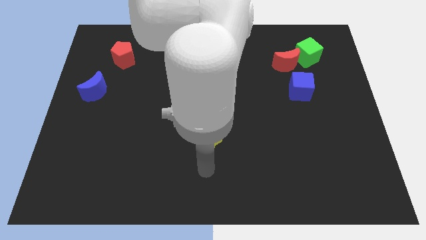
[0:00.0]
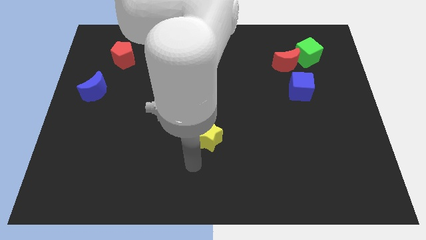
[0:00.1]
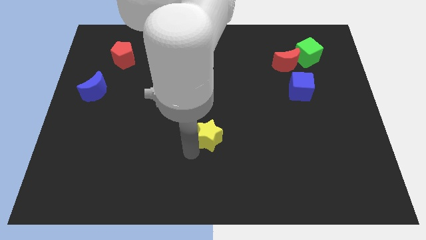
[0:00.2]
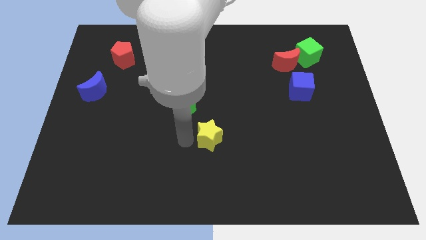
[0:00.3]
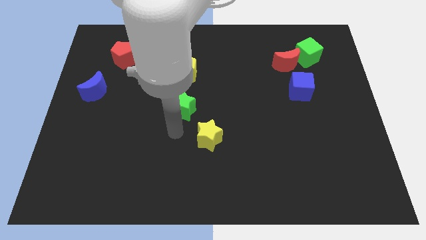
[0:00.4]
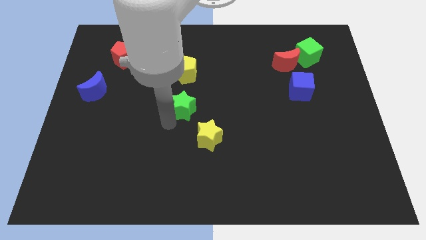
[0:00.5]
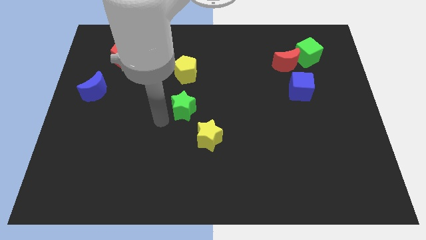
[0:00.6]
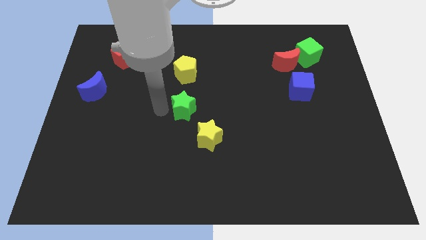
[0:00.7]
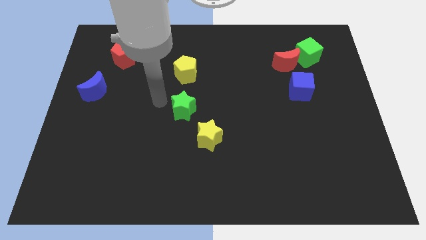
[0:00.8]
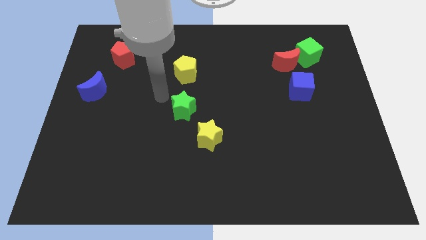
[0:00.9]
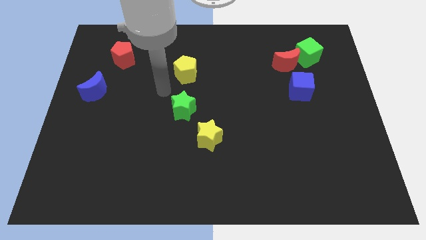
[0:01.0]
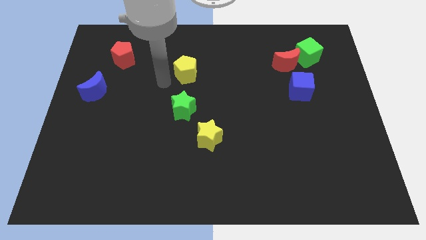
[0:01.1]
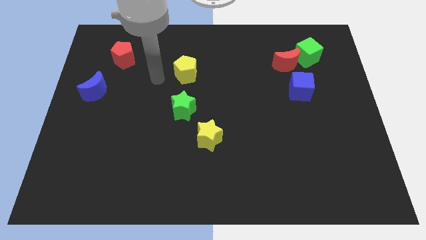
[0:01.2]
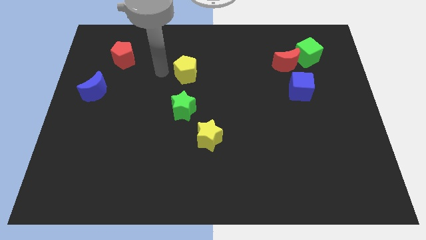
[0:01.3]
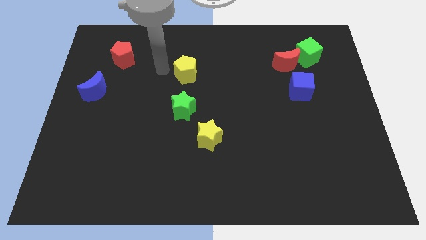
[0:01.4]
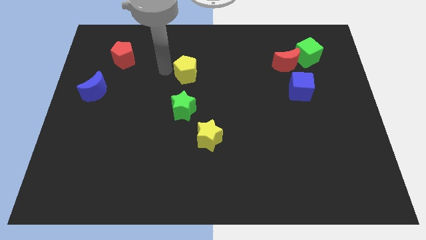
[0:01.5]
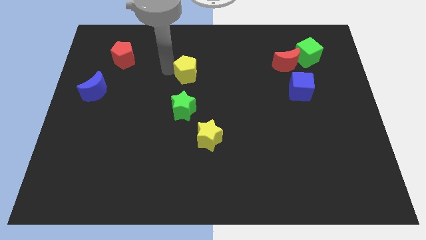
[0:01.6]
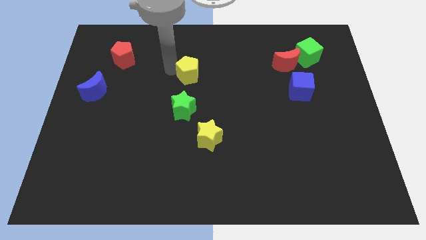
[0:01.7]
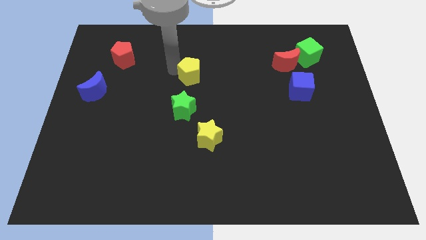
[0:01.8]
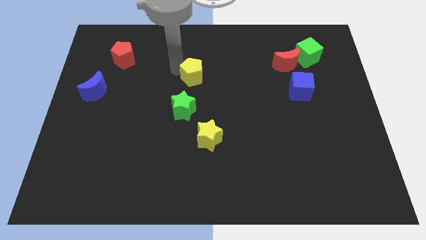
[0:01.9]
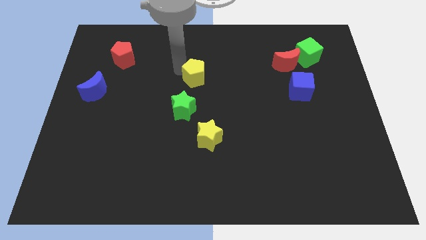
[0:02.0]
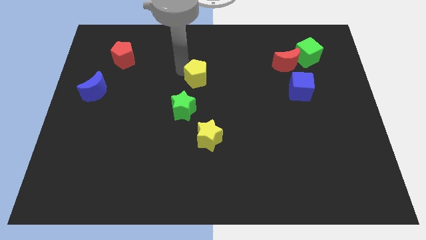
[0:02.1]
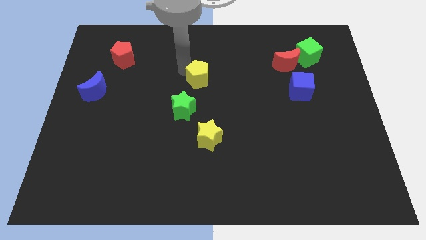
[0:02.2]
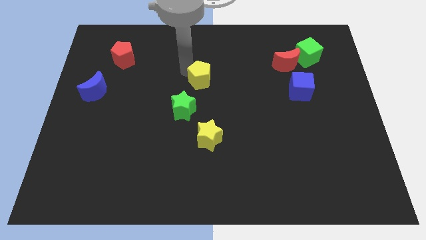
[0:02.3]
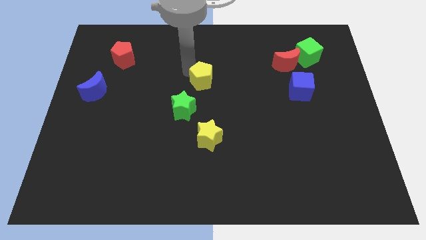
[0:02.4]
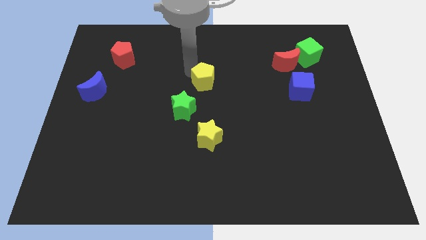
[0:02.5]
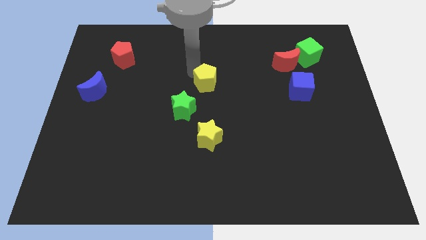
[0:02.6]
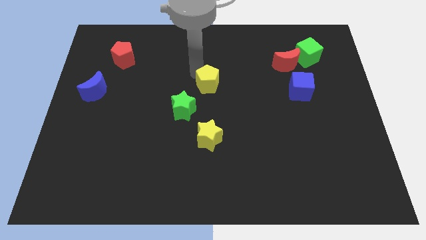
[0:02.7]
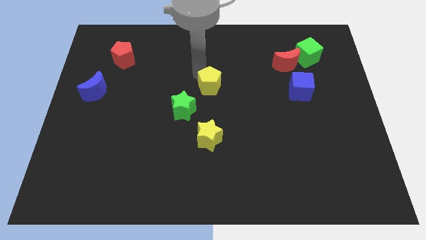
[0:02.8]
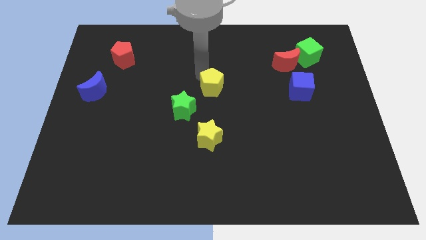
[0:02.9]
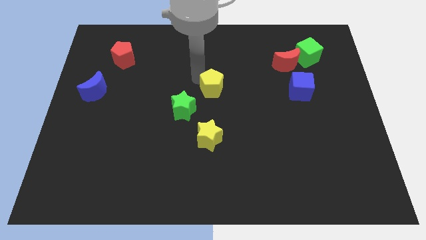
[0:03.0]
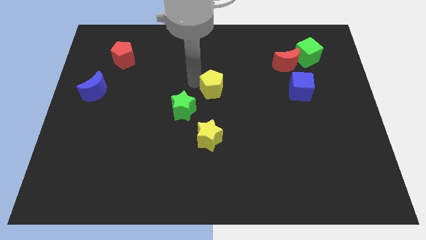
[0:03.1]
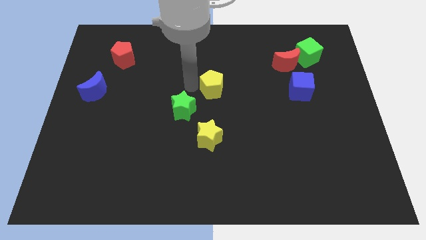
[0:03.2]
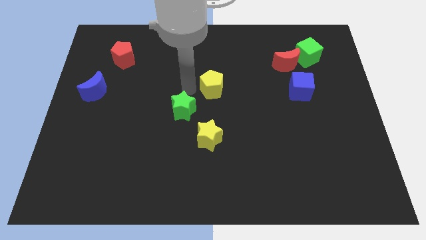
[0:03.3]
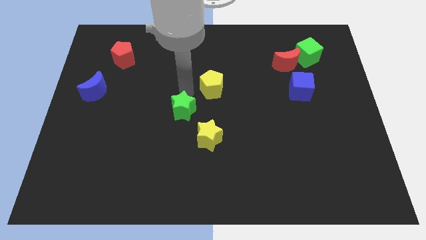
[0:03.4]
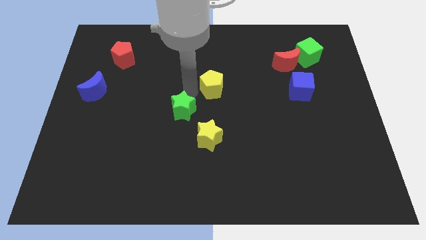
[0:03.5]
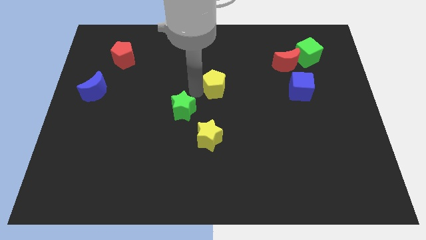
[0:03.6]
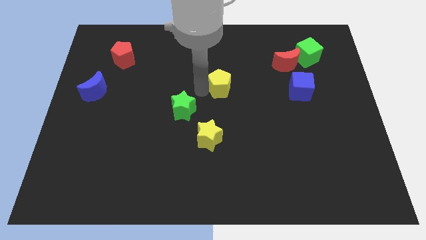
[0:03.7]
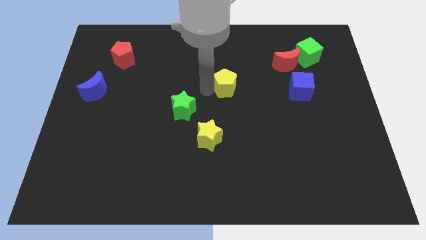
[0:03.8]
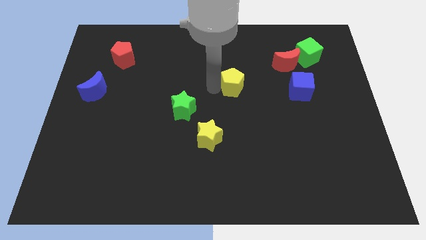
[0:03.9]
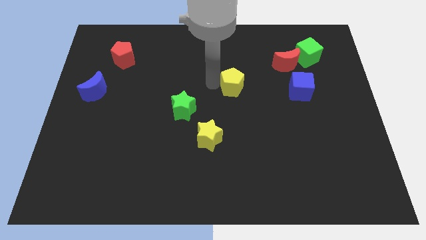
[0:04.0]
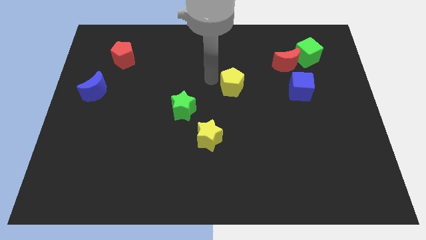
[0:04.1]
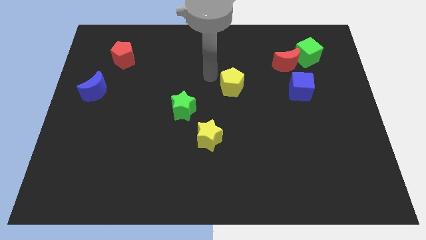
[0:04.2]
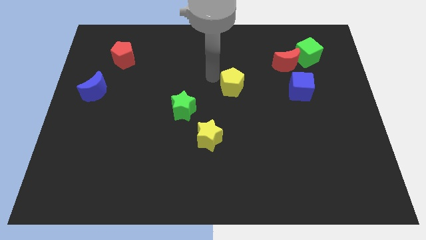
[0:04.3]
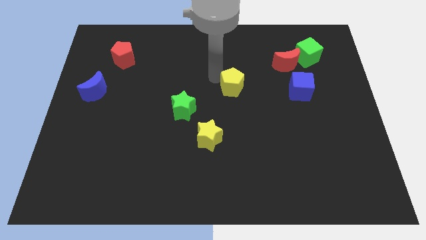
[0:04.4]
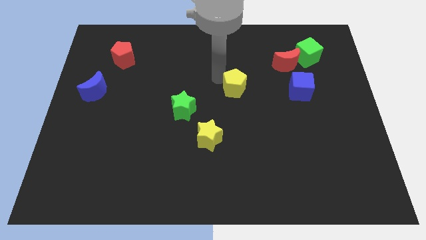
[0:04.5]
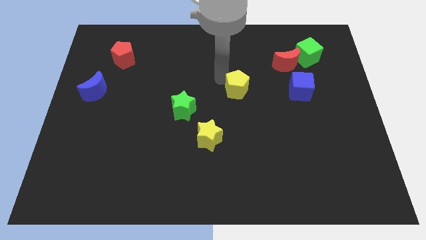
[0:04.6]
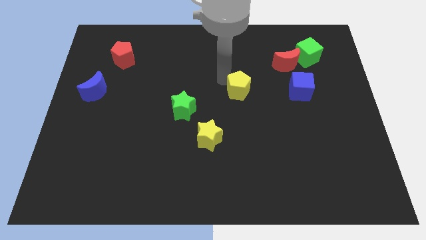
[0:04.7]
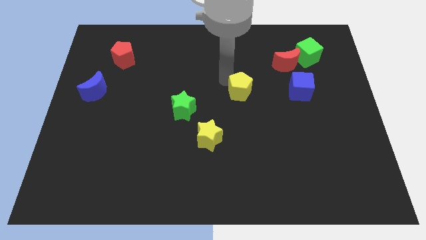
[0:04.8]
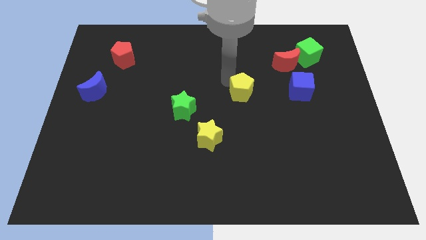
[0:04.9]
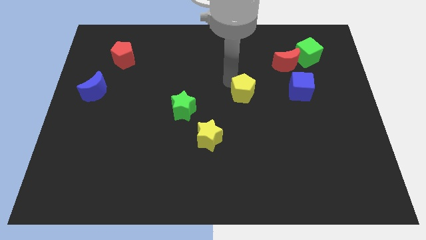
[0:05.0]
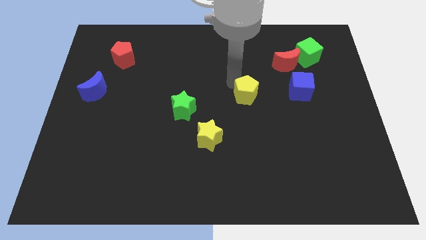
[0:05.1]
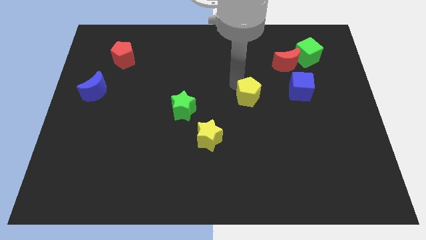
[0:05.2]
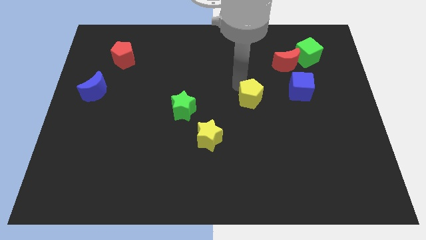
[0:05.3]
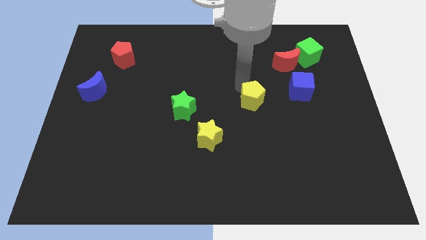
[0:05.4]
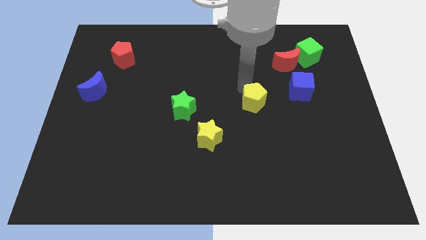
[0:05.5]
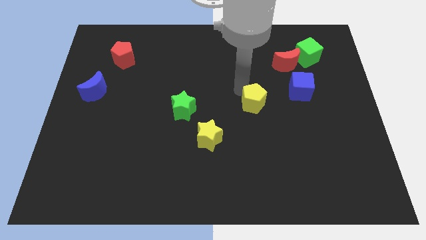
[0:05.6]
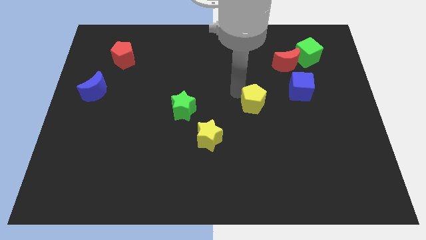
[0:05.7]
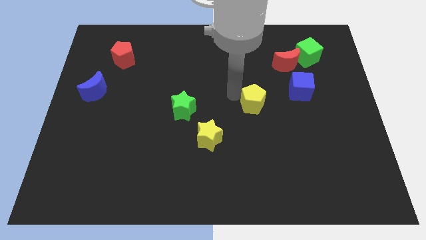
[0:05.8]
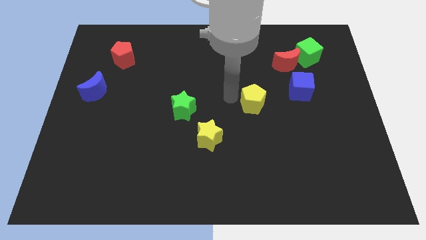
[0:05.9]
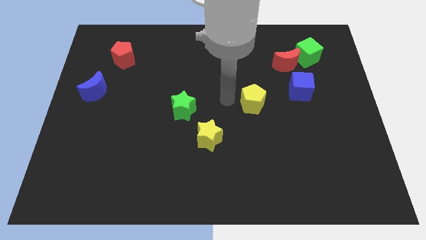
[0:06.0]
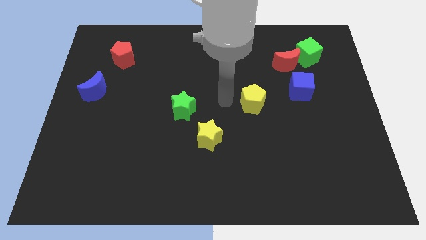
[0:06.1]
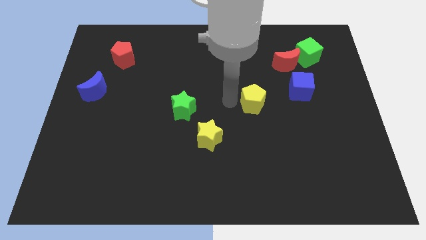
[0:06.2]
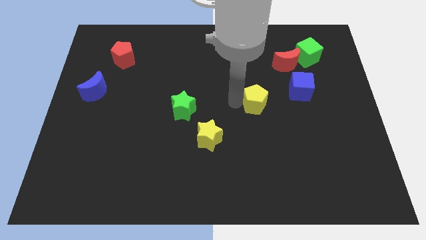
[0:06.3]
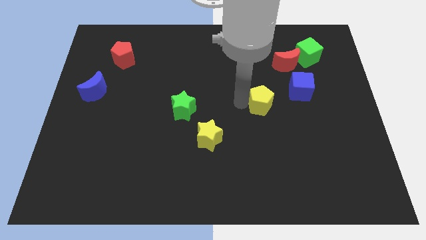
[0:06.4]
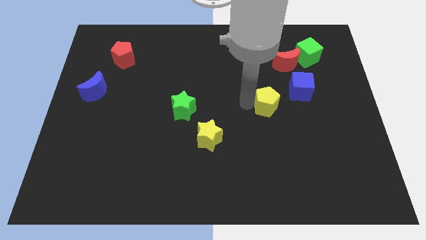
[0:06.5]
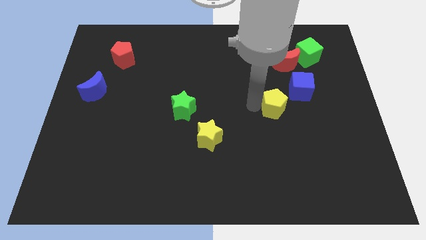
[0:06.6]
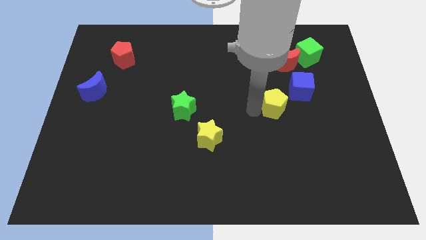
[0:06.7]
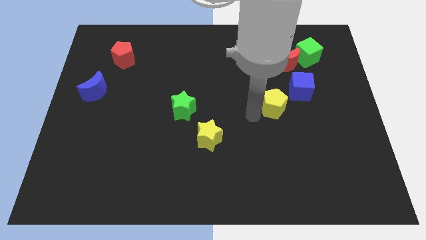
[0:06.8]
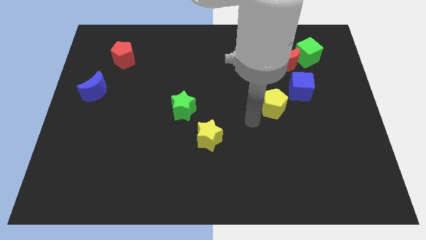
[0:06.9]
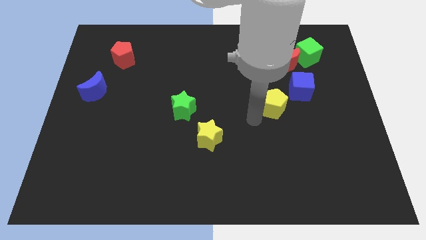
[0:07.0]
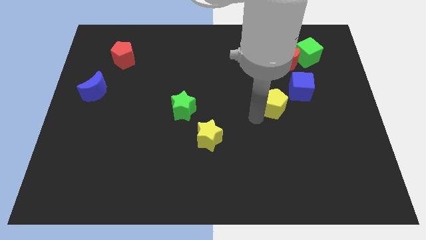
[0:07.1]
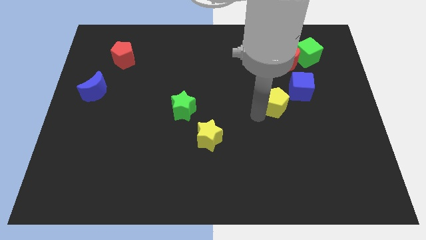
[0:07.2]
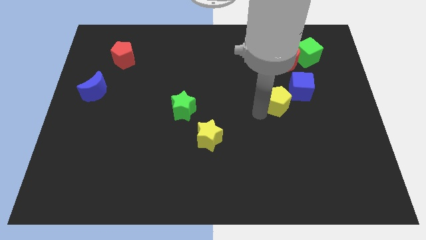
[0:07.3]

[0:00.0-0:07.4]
move the yellow pentagon to the bottom of the red moon

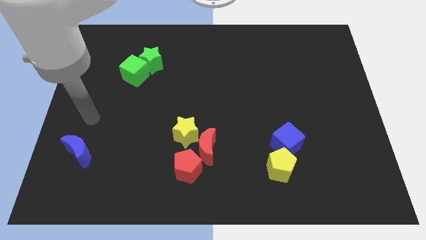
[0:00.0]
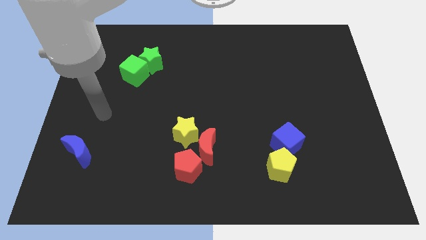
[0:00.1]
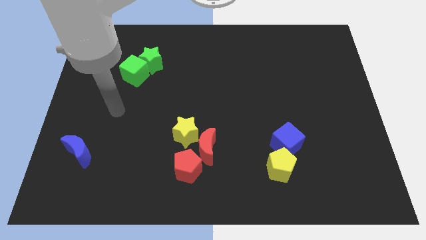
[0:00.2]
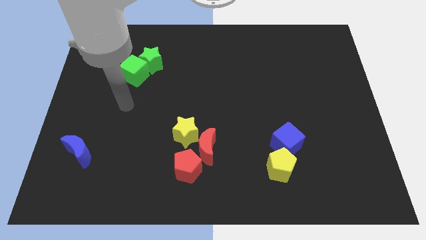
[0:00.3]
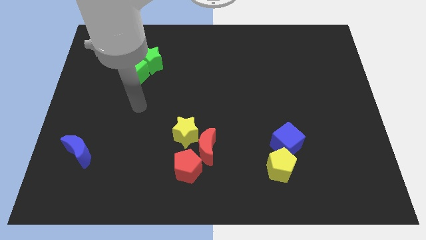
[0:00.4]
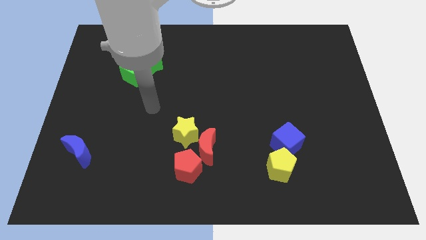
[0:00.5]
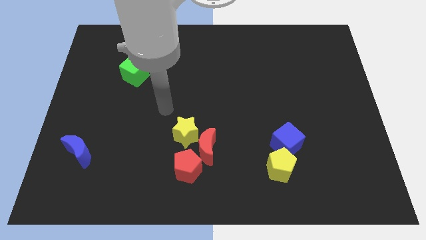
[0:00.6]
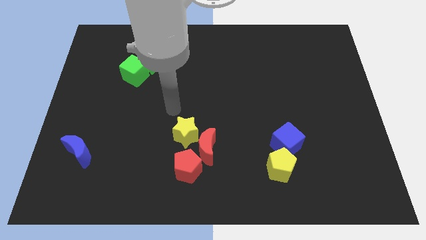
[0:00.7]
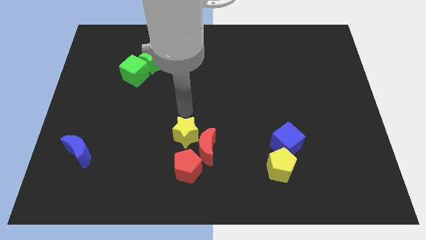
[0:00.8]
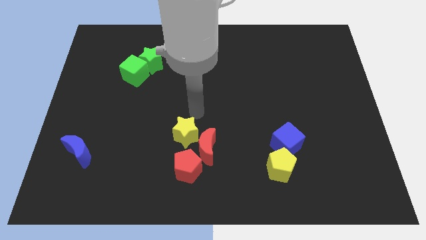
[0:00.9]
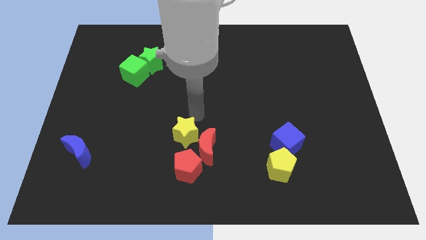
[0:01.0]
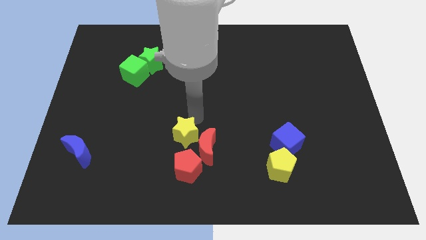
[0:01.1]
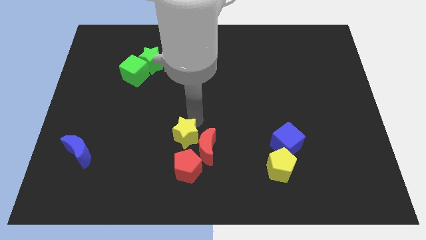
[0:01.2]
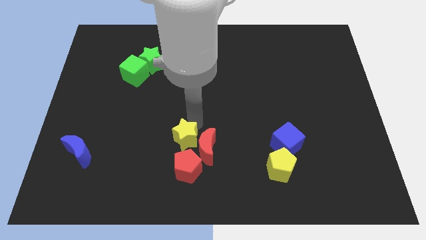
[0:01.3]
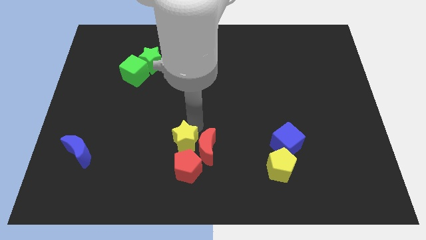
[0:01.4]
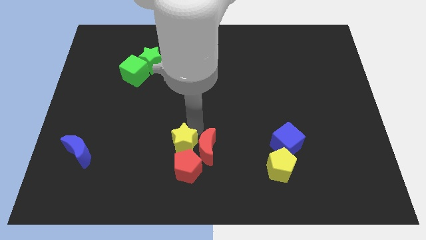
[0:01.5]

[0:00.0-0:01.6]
push the yellow star to the bottom left side of the red moon
